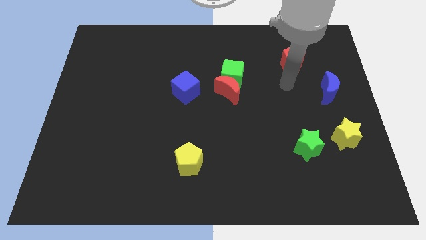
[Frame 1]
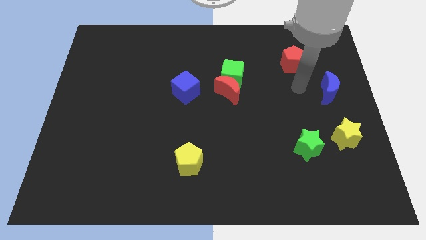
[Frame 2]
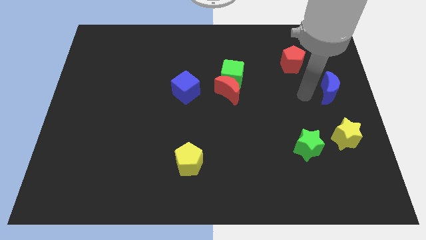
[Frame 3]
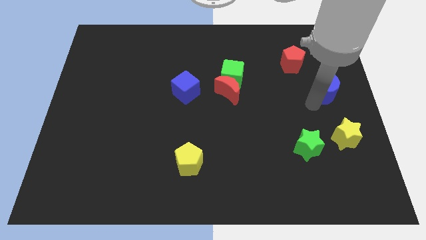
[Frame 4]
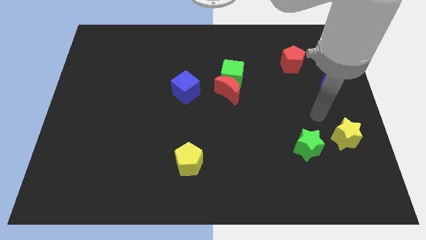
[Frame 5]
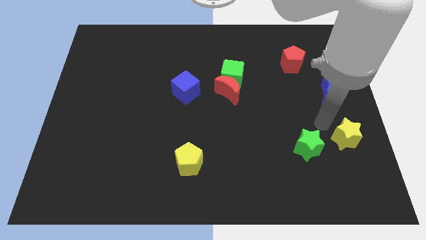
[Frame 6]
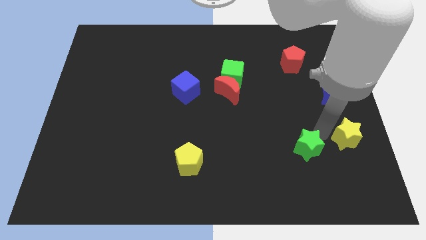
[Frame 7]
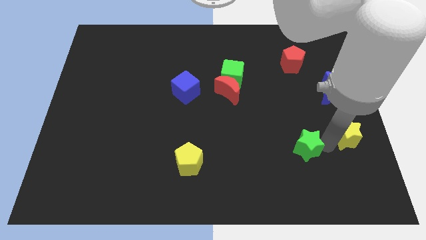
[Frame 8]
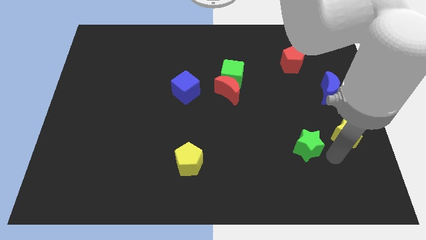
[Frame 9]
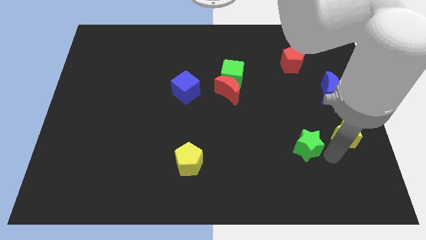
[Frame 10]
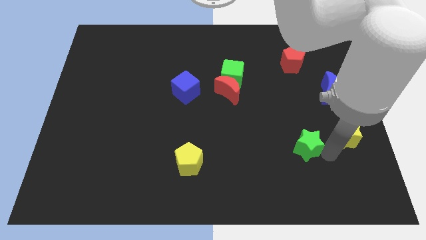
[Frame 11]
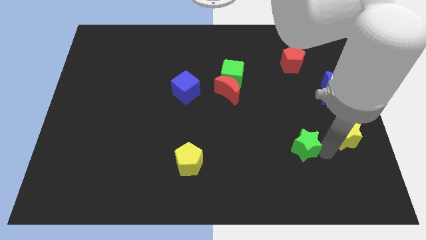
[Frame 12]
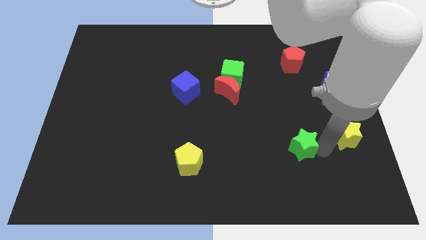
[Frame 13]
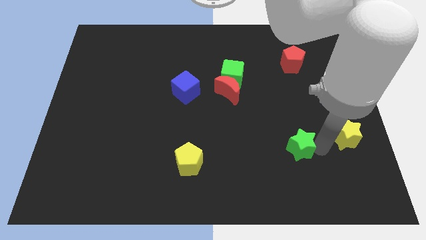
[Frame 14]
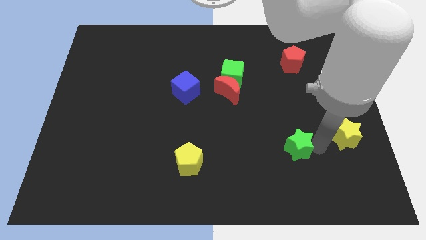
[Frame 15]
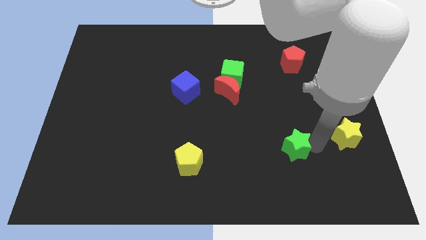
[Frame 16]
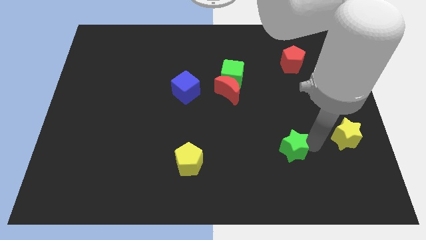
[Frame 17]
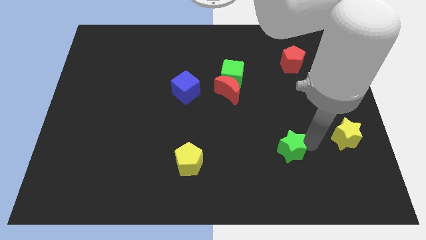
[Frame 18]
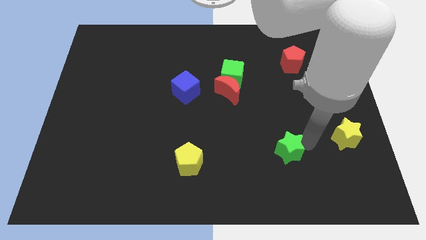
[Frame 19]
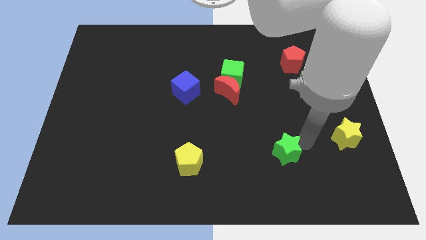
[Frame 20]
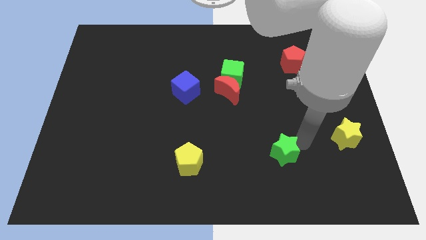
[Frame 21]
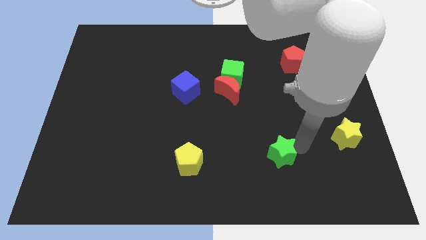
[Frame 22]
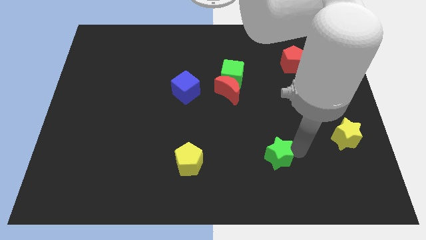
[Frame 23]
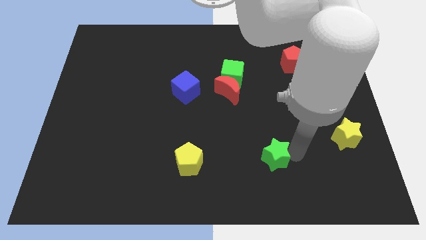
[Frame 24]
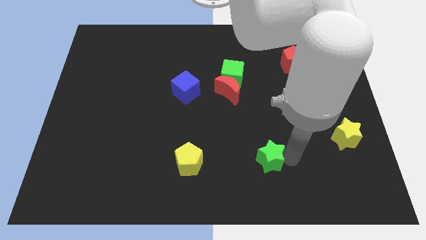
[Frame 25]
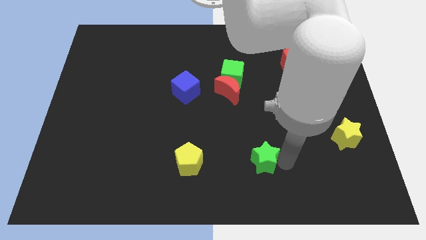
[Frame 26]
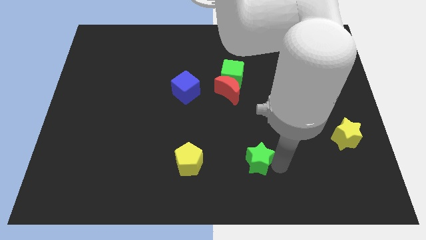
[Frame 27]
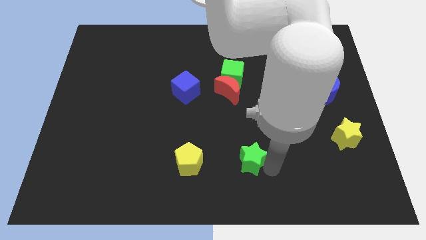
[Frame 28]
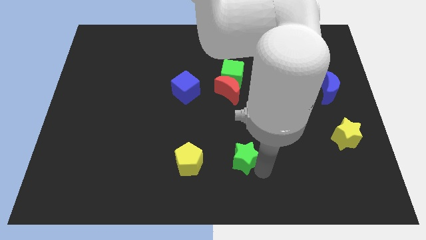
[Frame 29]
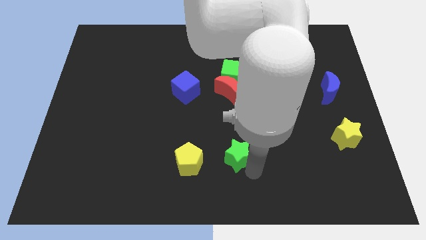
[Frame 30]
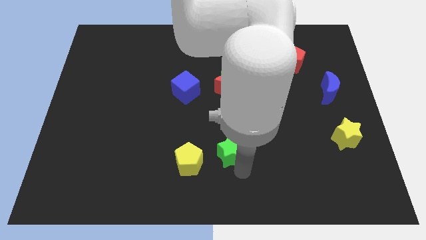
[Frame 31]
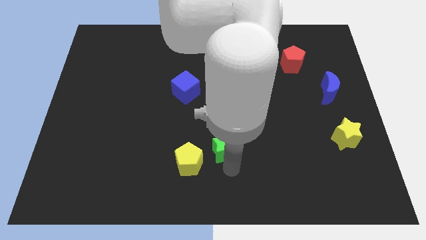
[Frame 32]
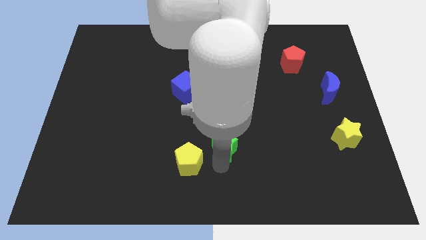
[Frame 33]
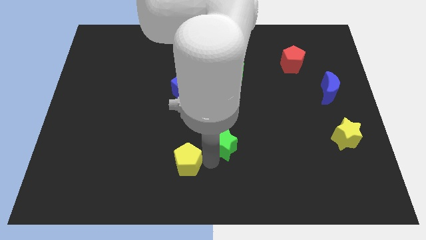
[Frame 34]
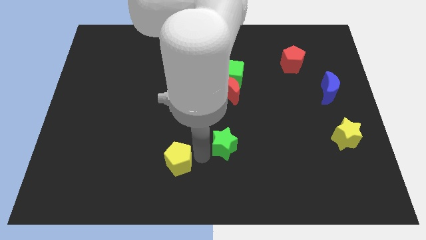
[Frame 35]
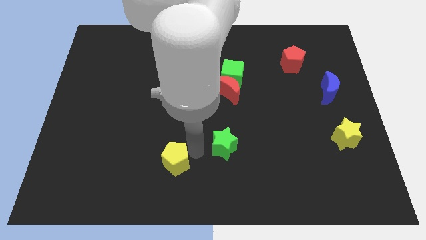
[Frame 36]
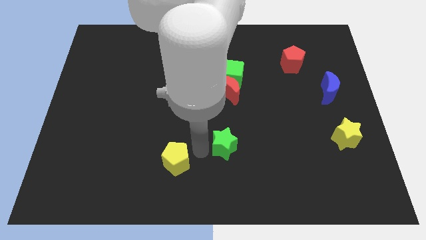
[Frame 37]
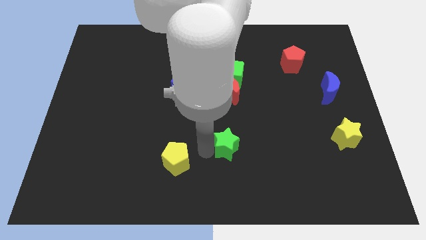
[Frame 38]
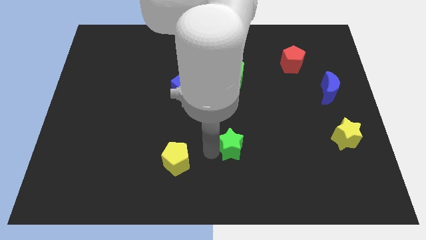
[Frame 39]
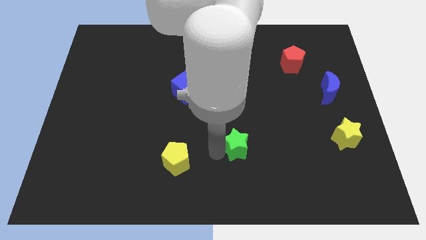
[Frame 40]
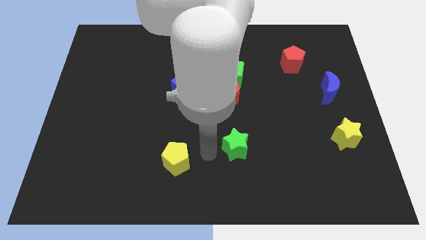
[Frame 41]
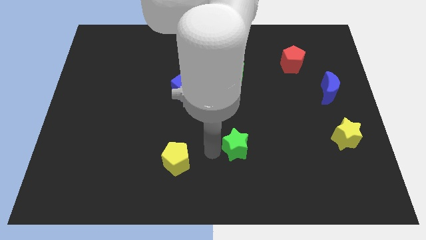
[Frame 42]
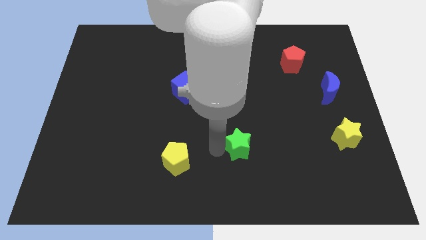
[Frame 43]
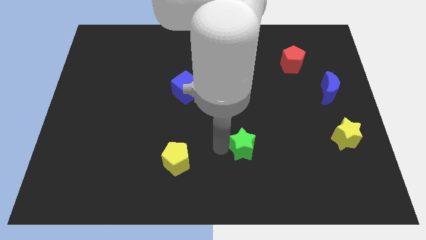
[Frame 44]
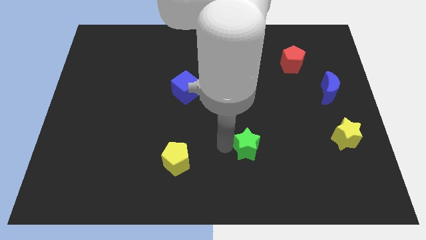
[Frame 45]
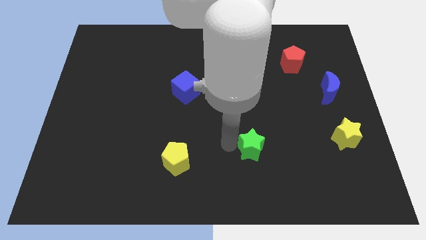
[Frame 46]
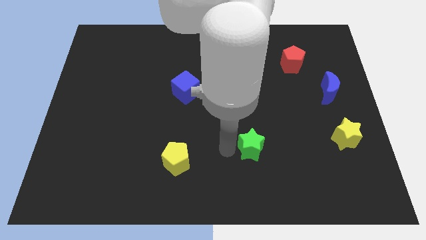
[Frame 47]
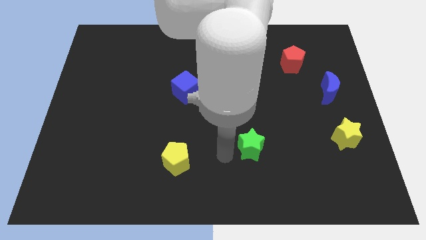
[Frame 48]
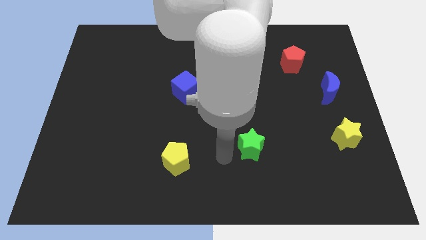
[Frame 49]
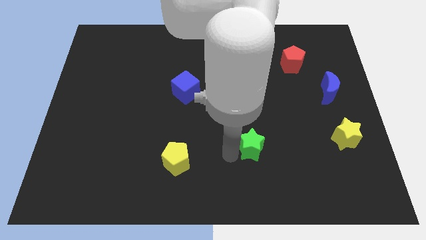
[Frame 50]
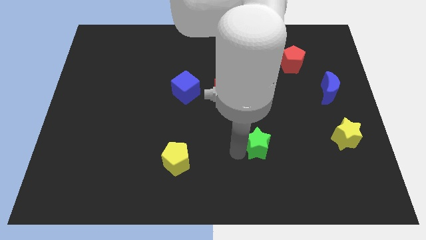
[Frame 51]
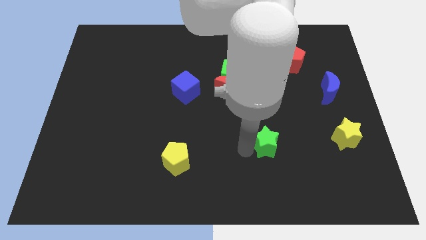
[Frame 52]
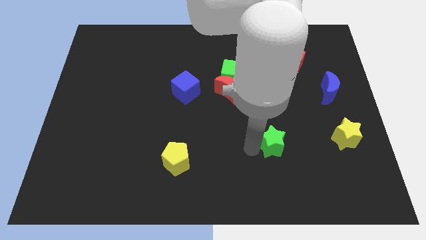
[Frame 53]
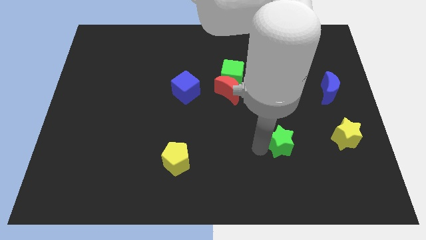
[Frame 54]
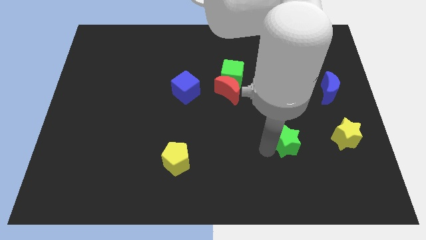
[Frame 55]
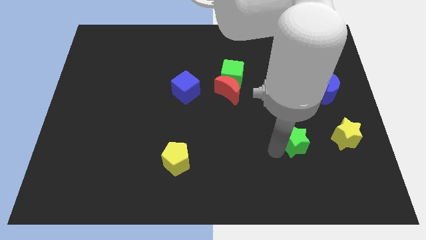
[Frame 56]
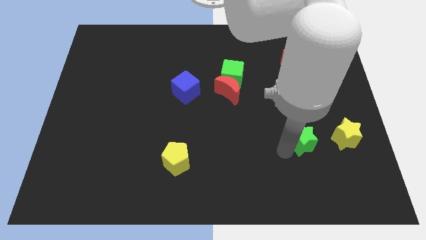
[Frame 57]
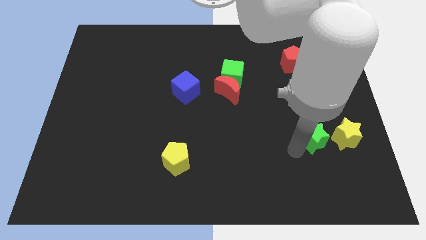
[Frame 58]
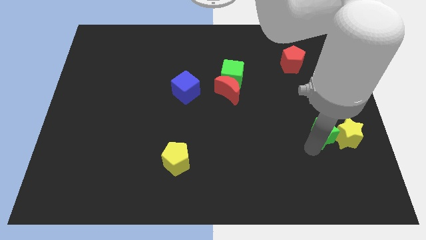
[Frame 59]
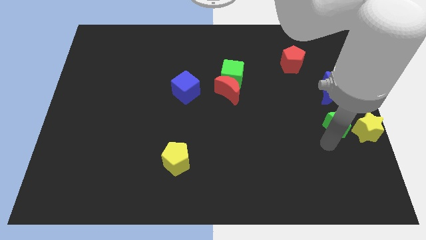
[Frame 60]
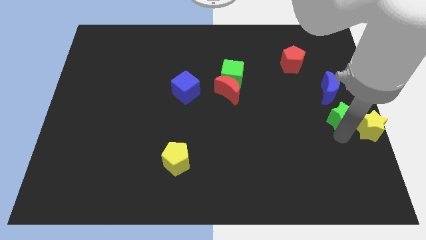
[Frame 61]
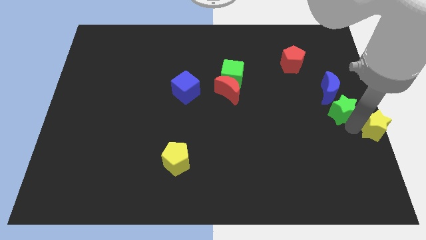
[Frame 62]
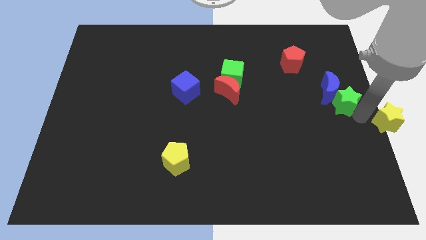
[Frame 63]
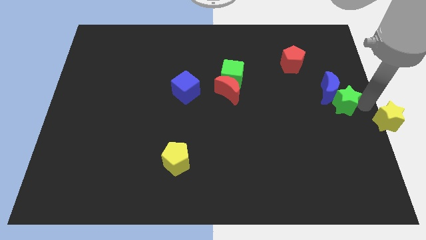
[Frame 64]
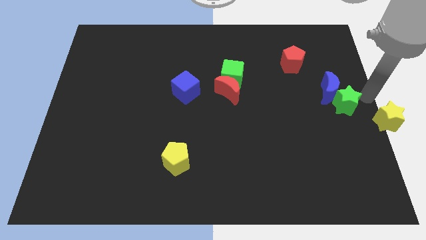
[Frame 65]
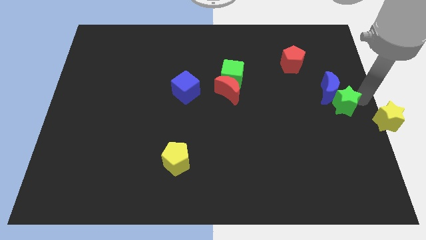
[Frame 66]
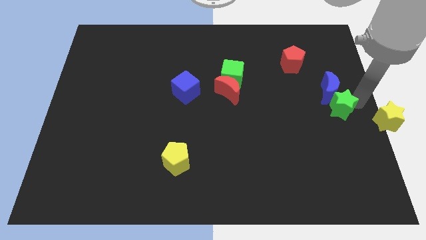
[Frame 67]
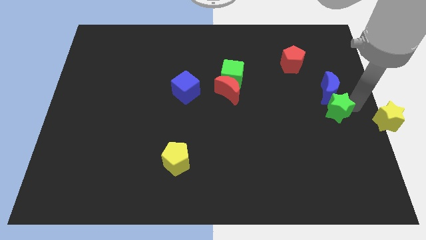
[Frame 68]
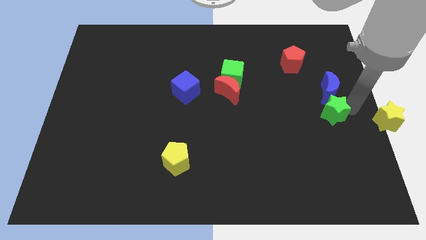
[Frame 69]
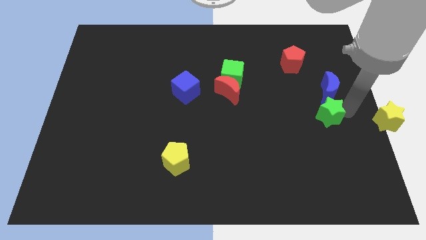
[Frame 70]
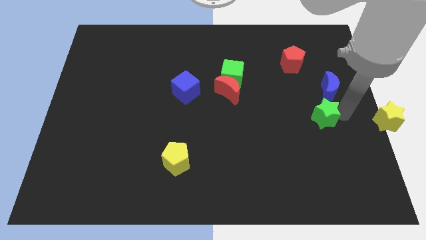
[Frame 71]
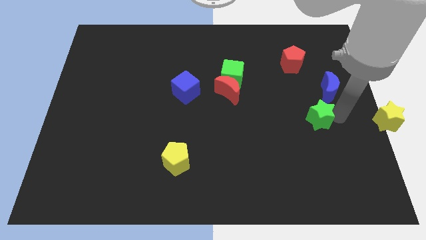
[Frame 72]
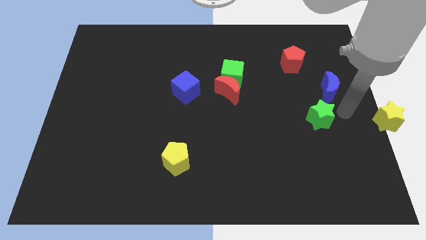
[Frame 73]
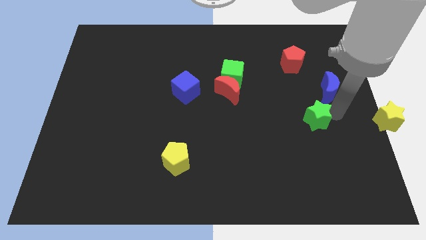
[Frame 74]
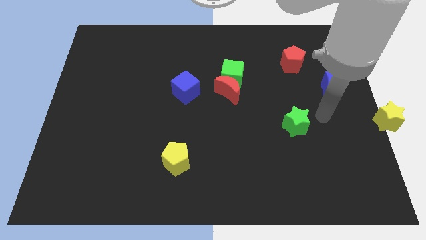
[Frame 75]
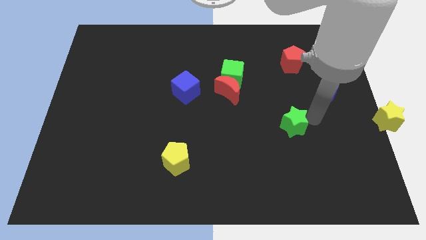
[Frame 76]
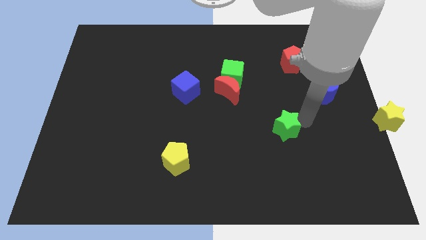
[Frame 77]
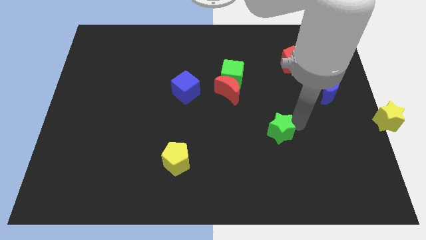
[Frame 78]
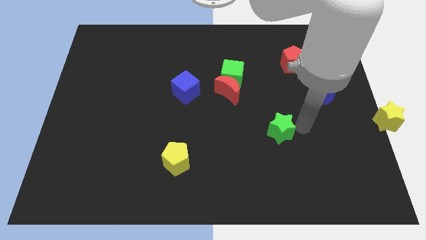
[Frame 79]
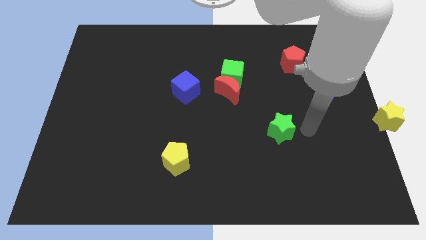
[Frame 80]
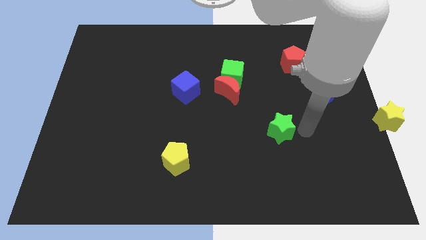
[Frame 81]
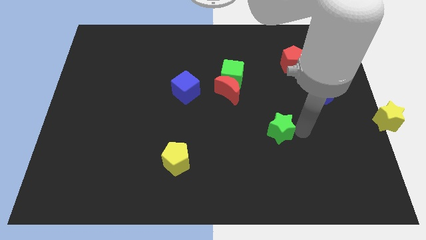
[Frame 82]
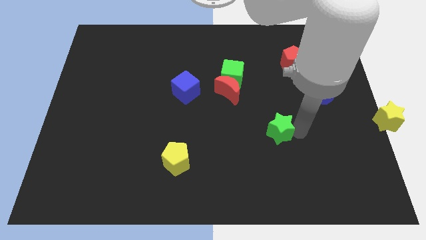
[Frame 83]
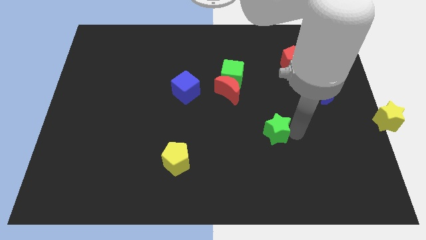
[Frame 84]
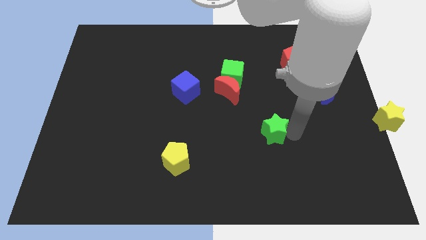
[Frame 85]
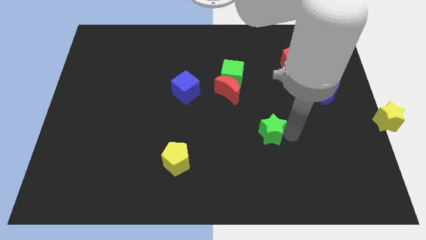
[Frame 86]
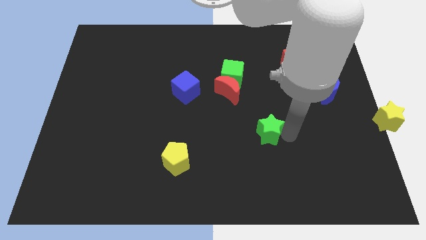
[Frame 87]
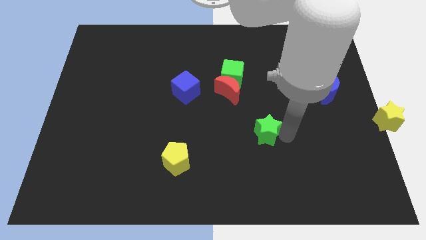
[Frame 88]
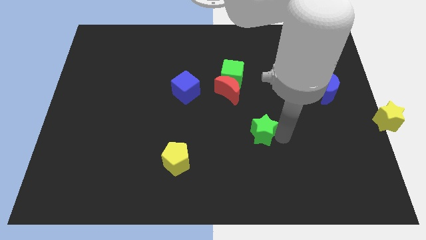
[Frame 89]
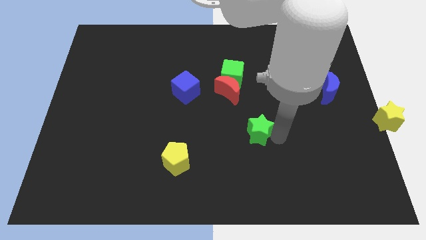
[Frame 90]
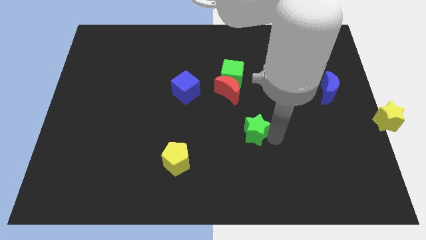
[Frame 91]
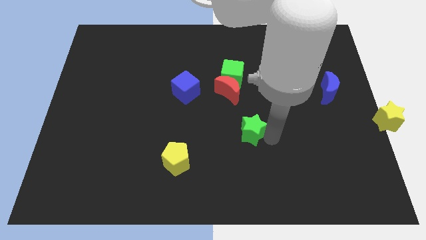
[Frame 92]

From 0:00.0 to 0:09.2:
put the green star to the center of the board
